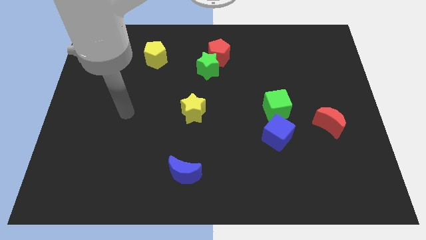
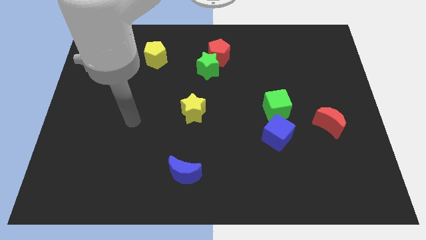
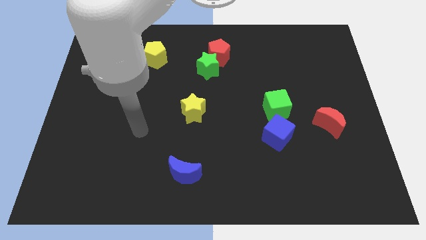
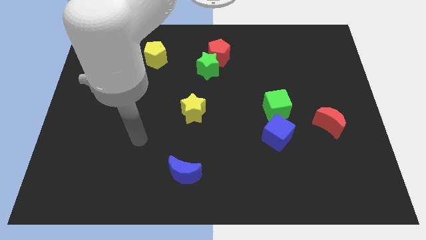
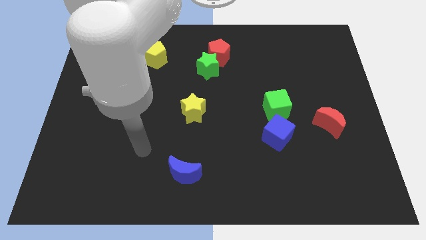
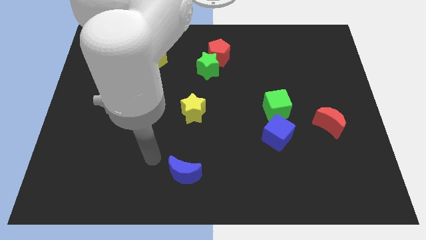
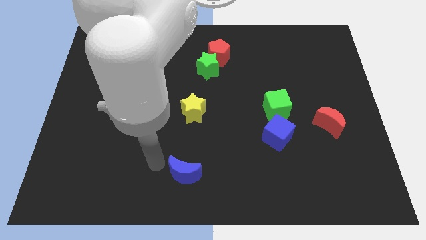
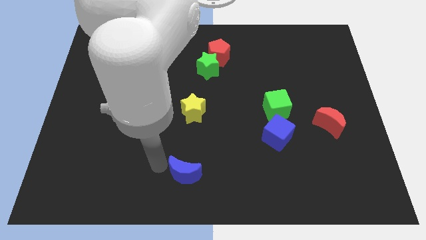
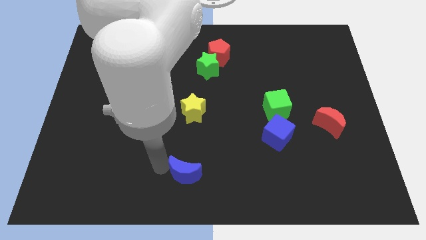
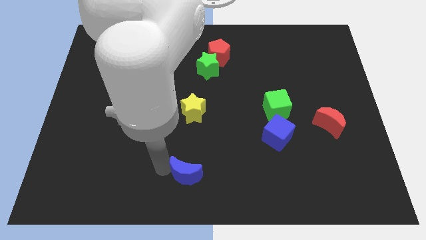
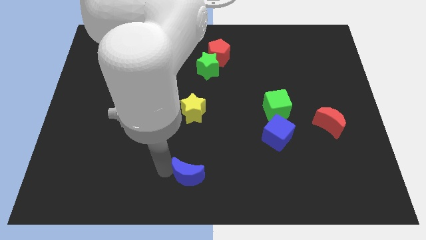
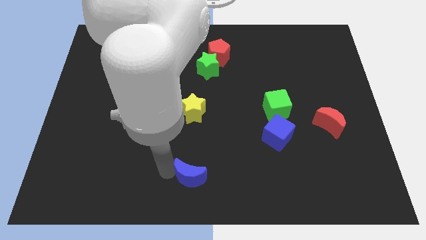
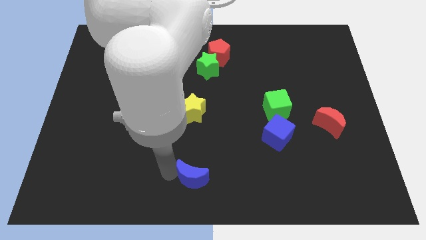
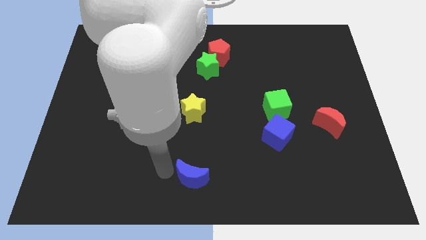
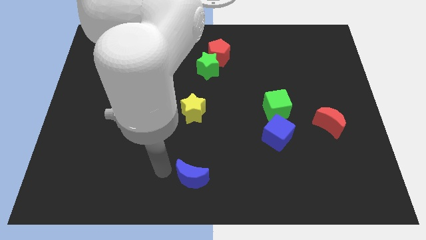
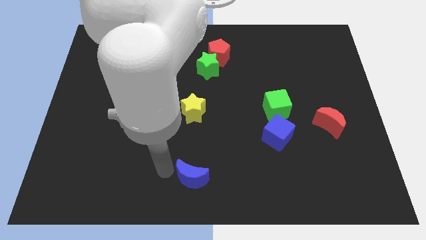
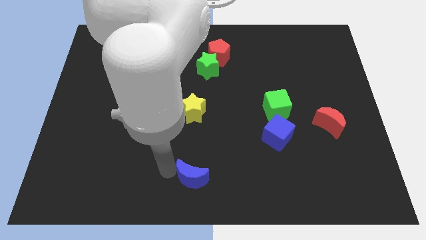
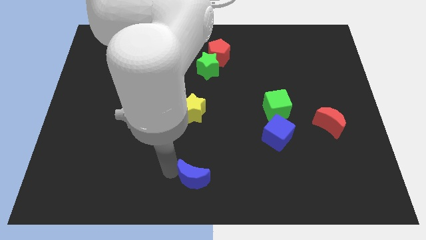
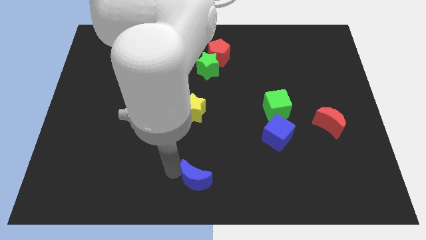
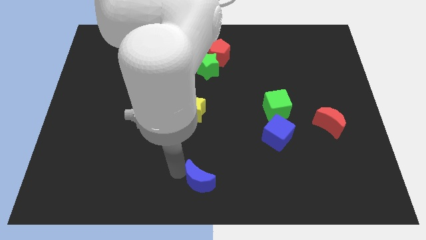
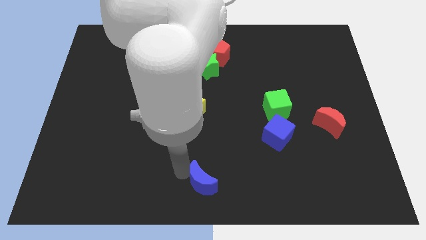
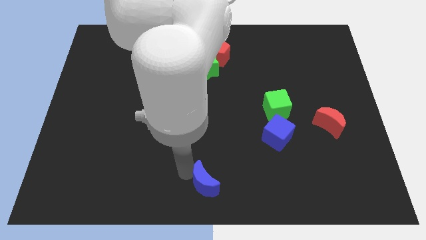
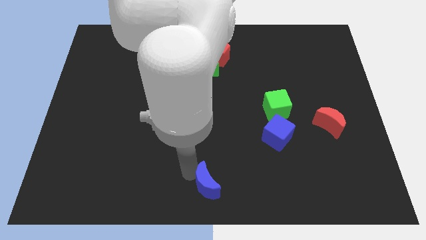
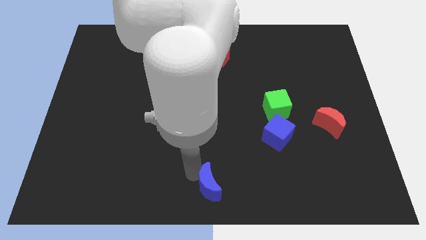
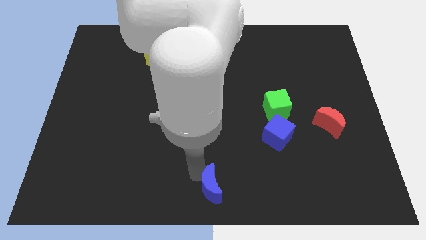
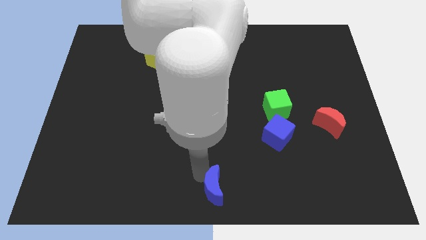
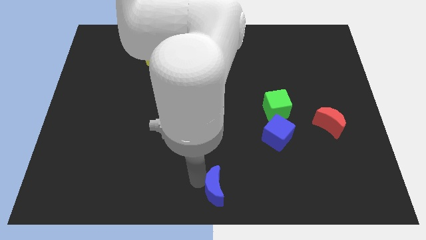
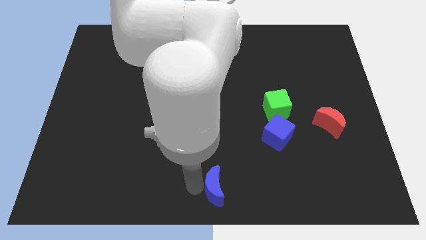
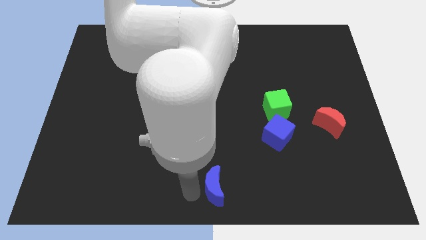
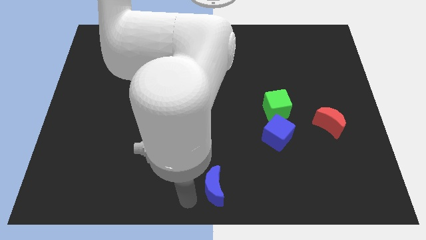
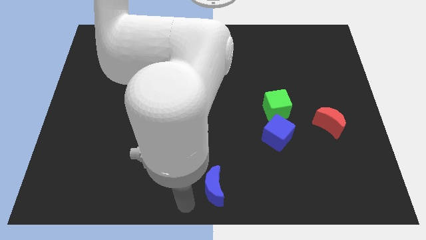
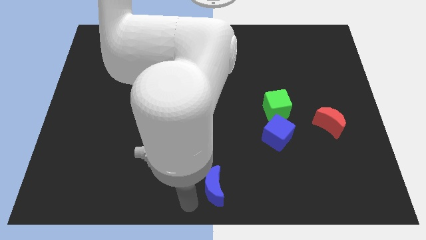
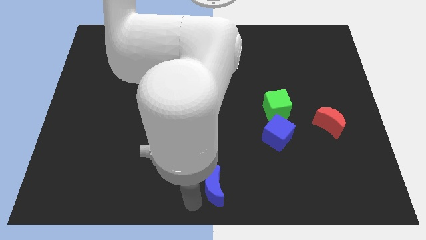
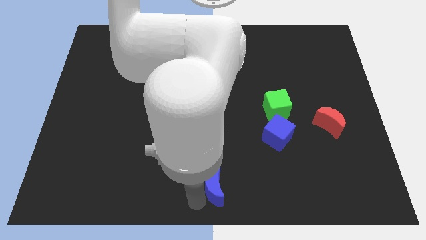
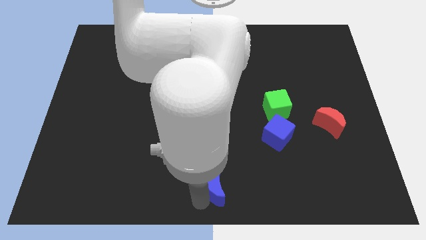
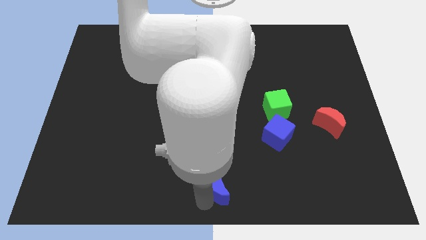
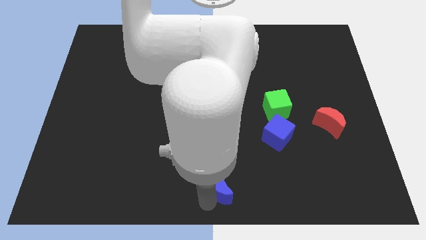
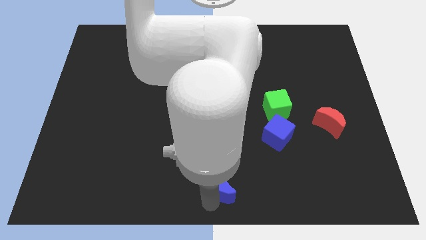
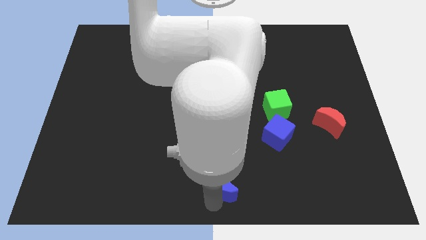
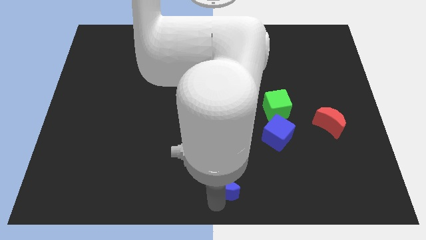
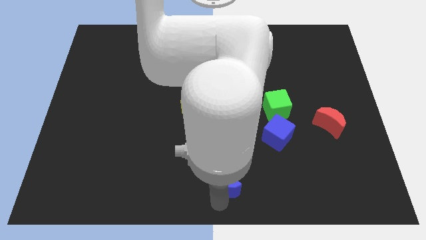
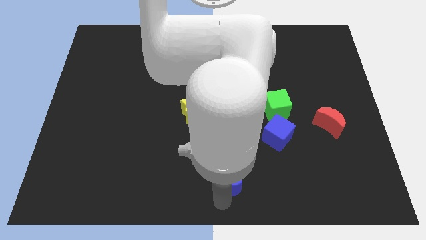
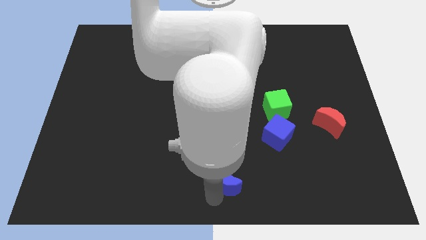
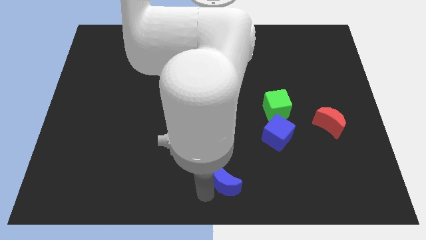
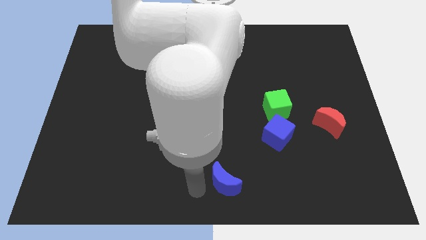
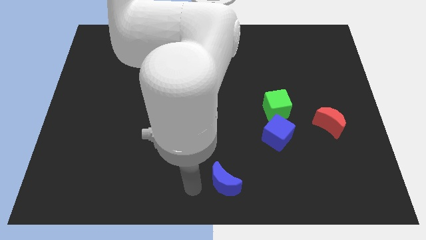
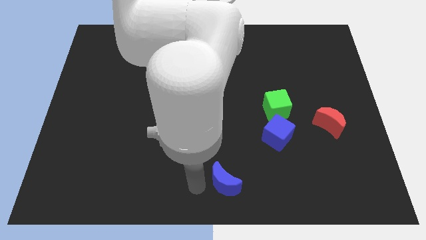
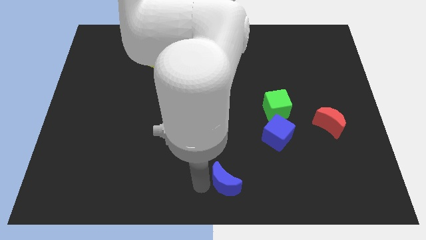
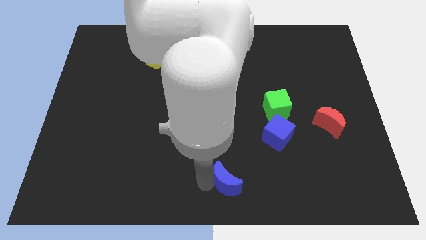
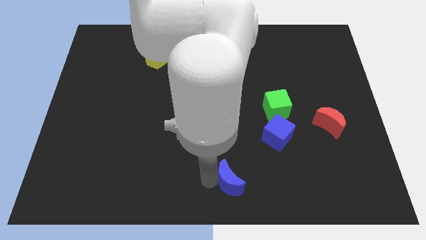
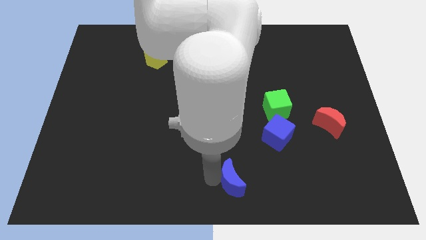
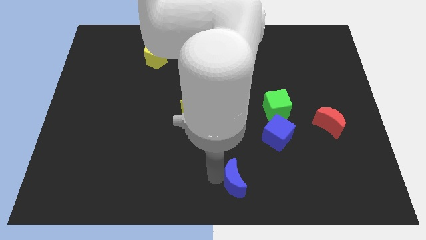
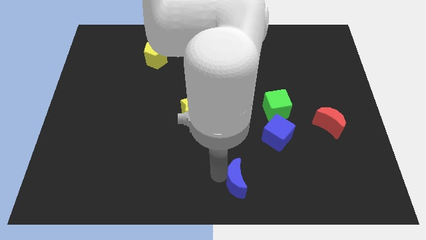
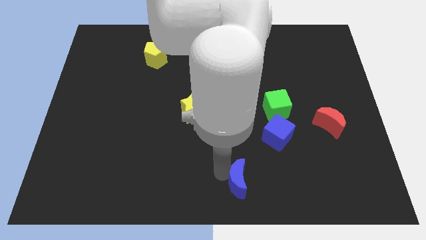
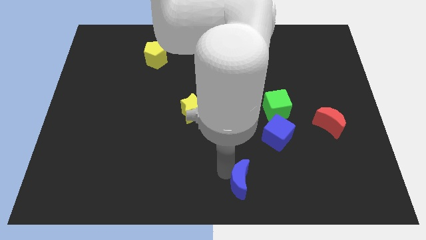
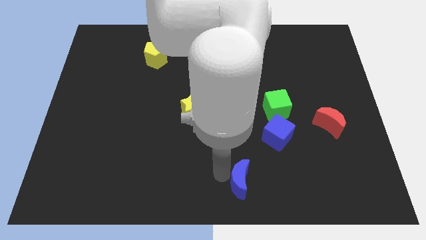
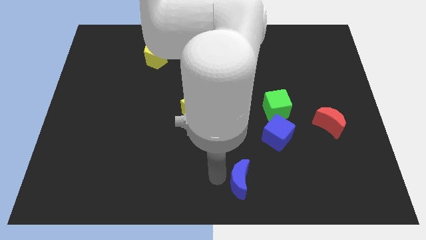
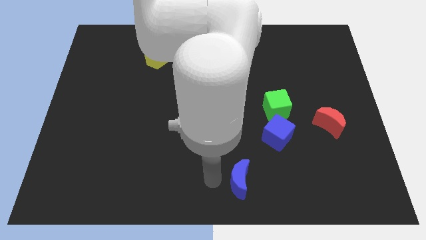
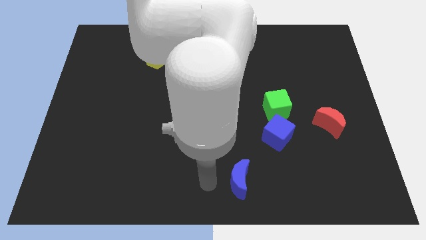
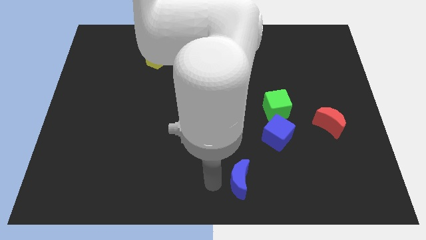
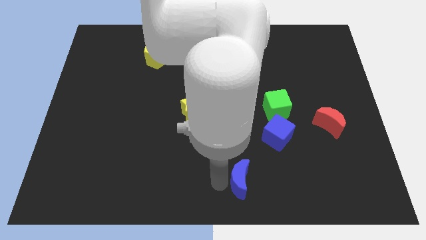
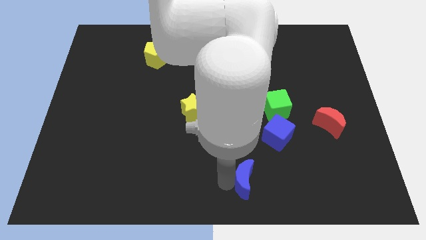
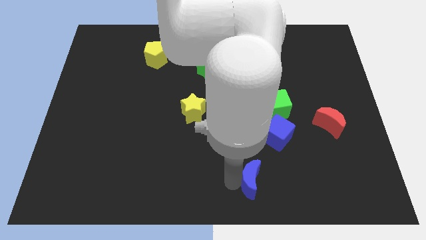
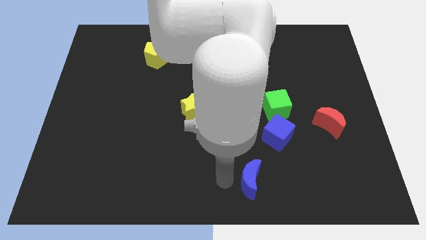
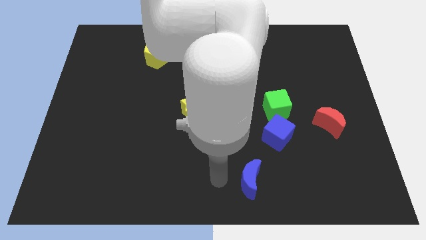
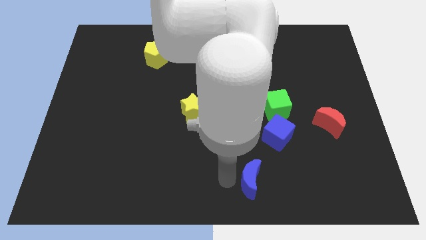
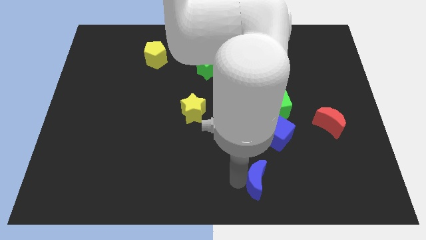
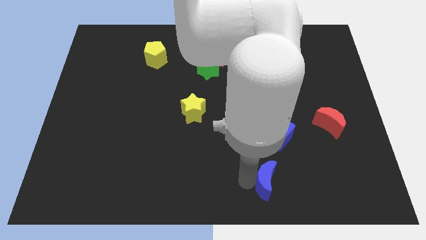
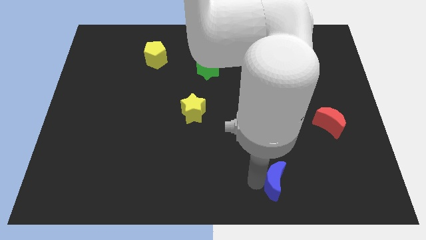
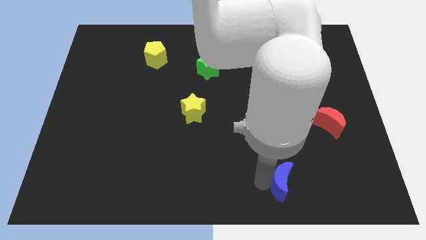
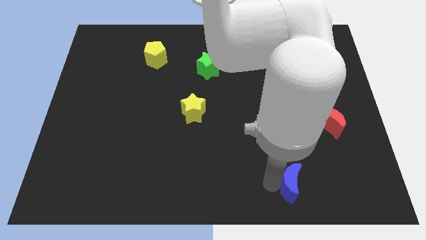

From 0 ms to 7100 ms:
push the blue moon to the right

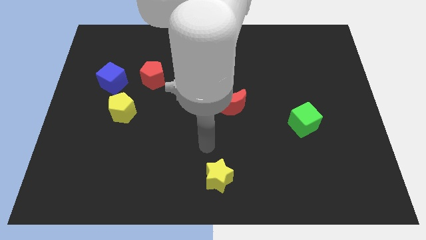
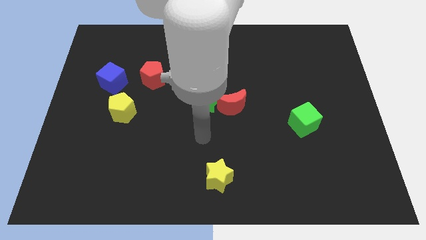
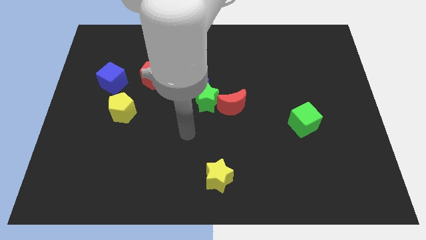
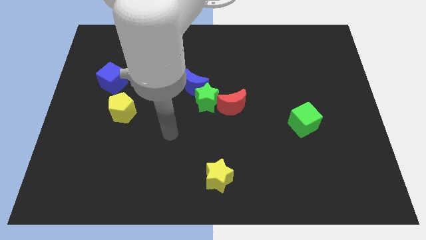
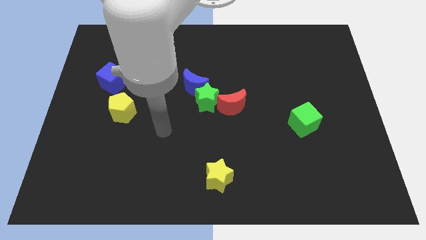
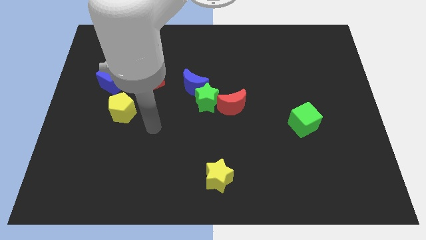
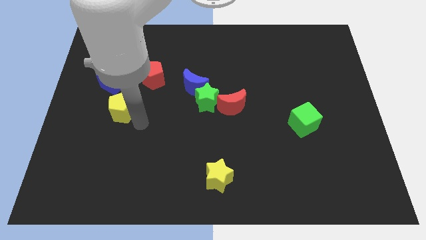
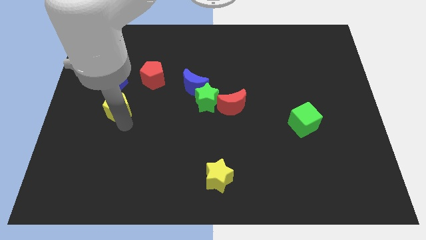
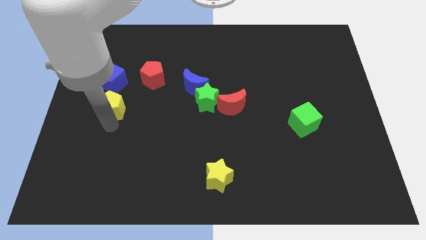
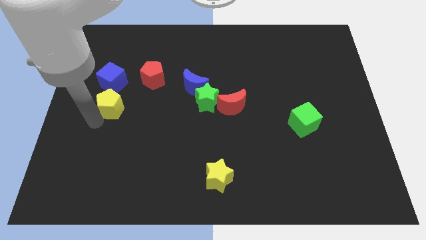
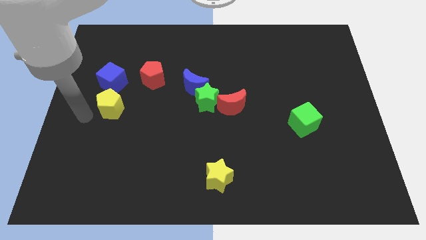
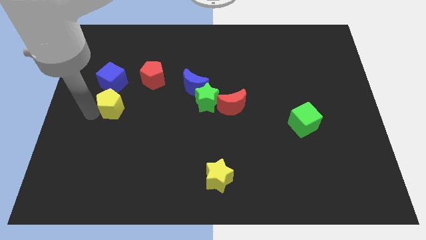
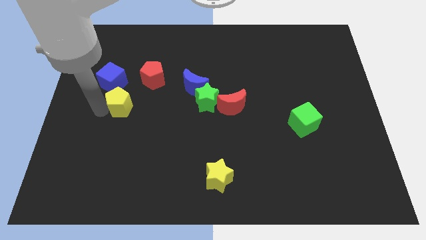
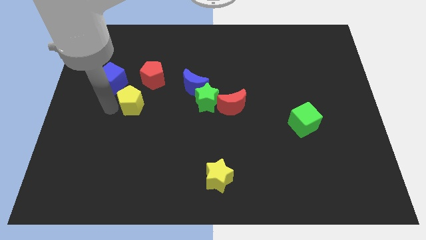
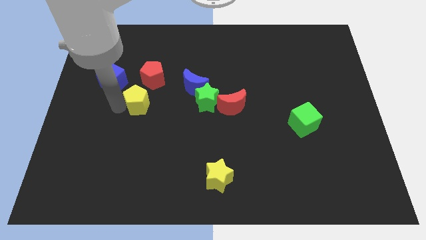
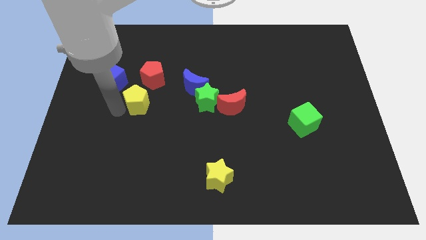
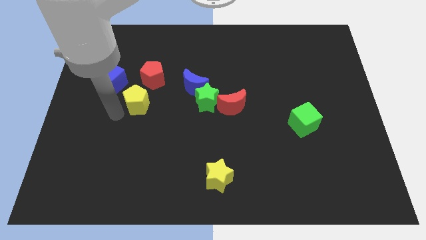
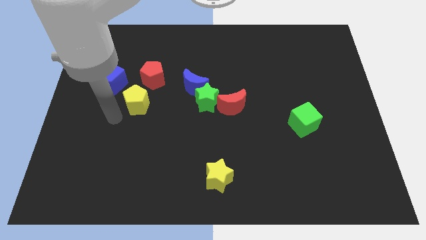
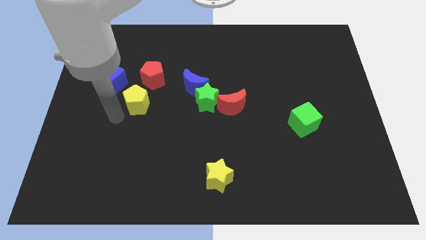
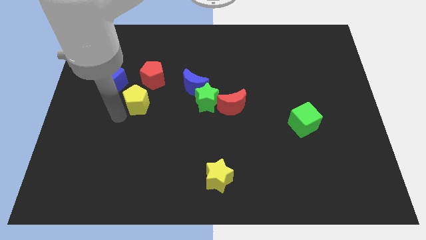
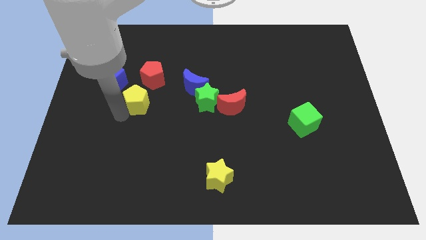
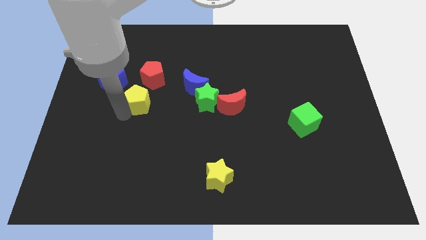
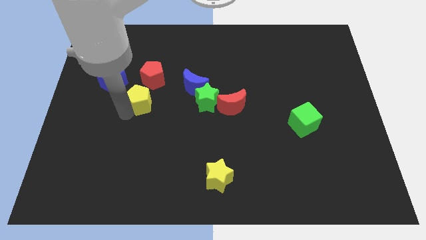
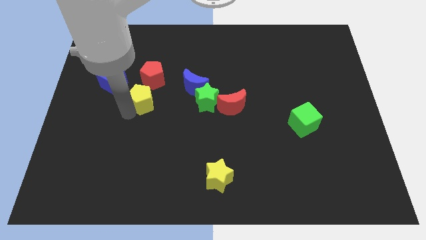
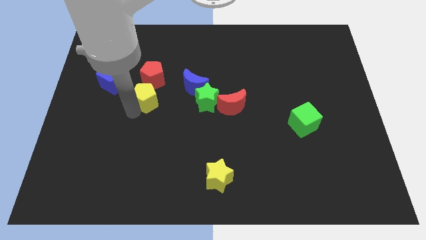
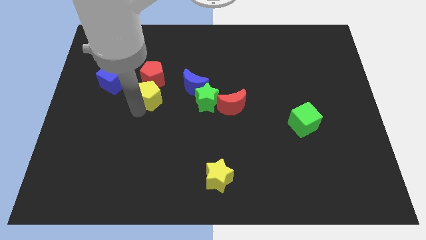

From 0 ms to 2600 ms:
slightly move the yellow pentagon upwards and then to the right
